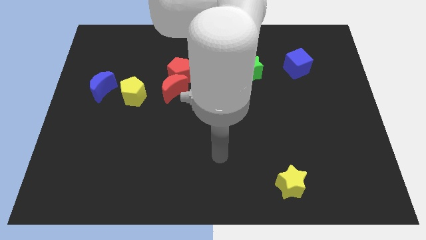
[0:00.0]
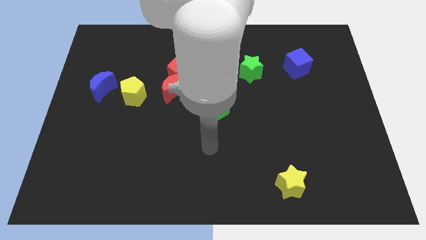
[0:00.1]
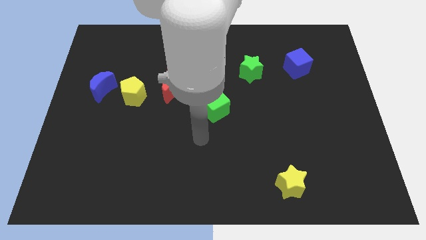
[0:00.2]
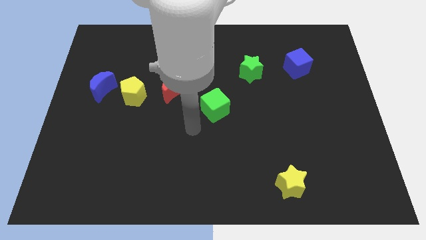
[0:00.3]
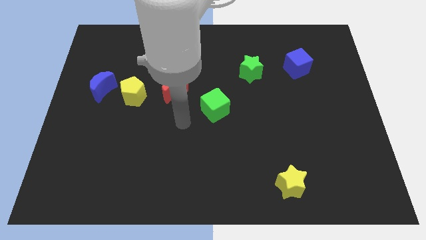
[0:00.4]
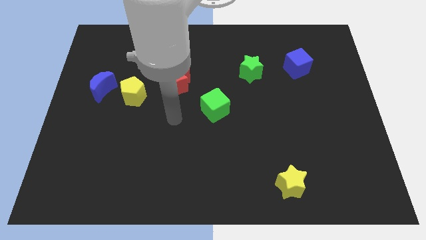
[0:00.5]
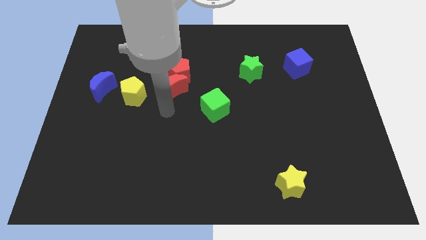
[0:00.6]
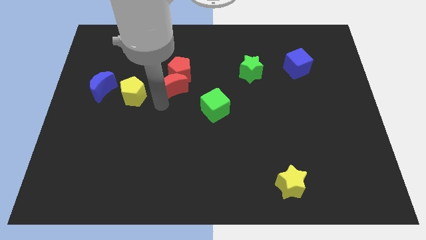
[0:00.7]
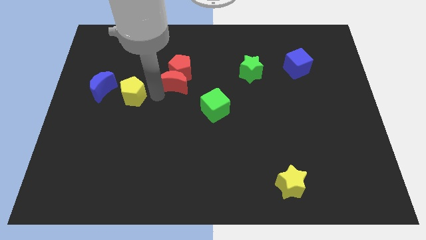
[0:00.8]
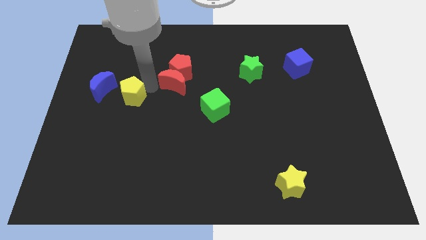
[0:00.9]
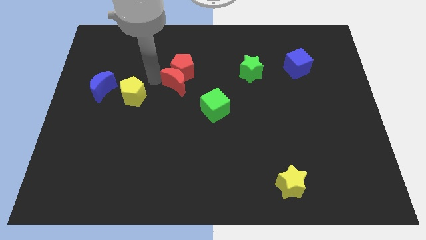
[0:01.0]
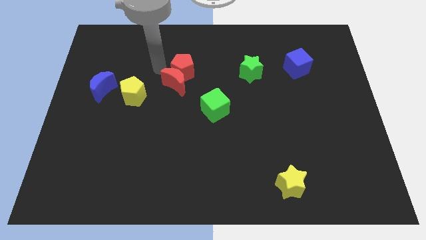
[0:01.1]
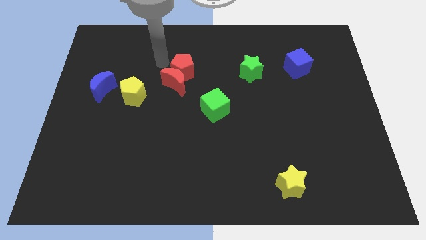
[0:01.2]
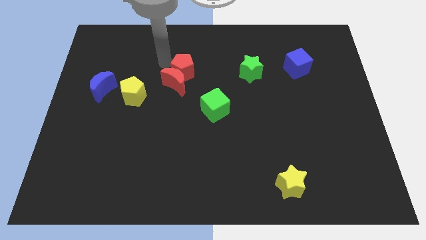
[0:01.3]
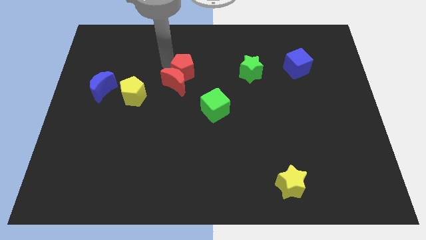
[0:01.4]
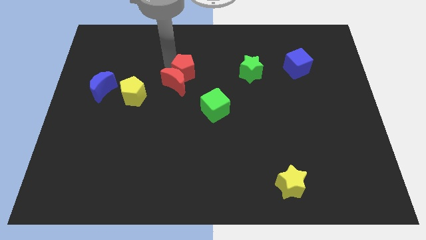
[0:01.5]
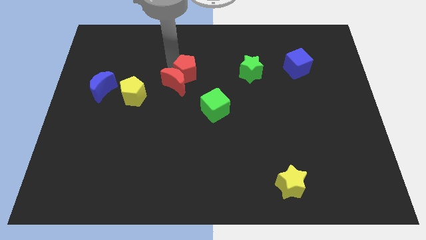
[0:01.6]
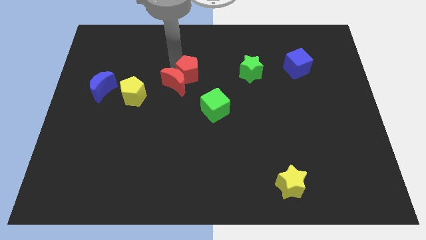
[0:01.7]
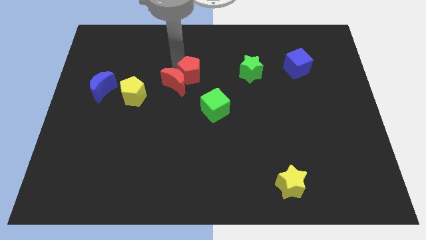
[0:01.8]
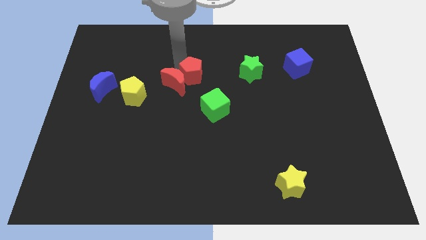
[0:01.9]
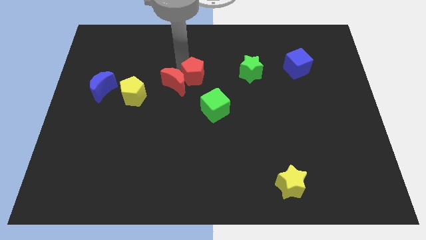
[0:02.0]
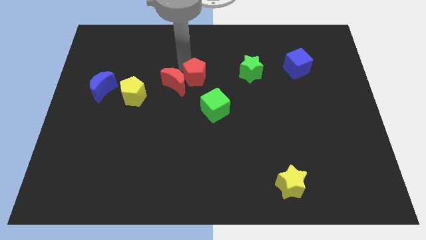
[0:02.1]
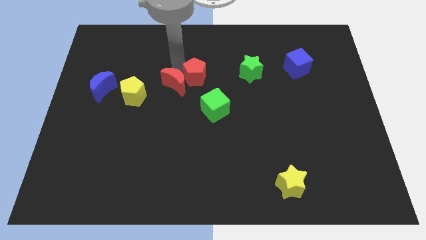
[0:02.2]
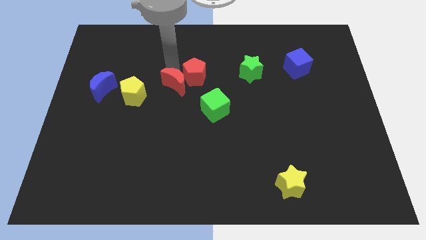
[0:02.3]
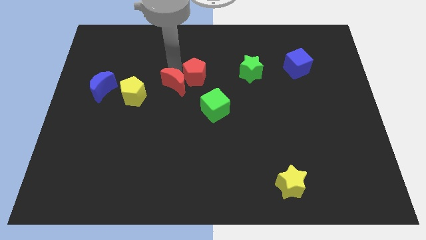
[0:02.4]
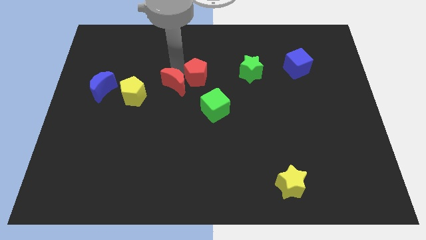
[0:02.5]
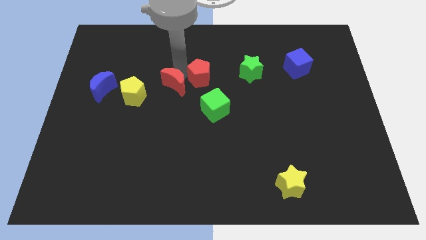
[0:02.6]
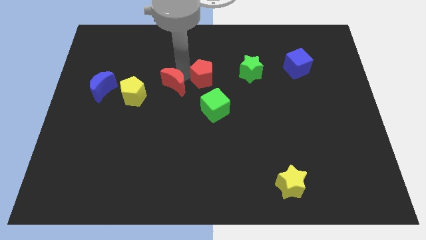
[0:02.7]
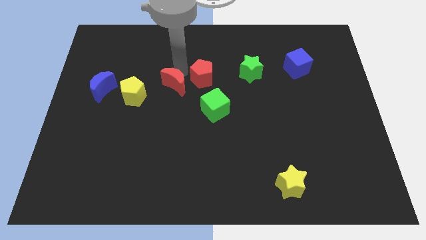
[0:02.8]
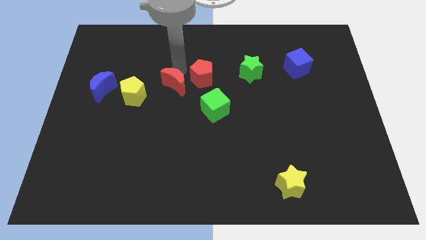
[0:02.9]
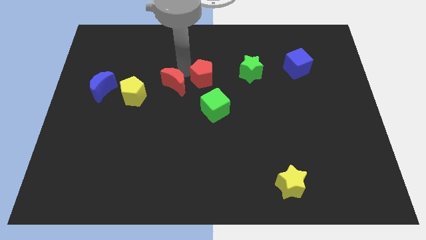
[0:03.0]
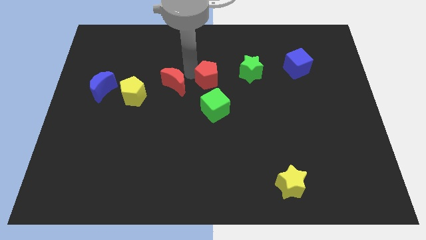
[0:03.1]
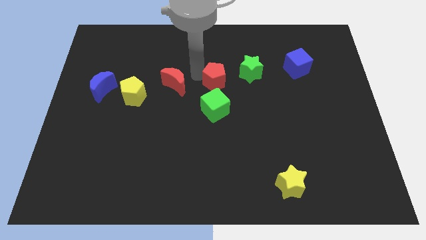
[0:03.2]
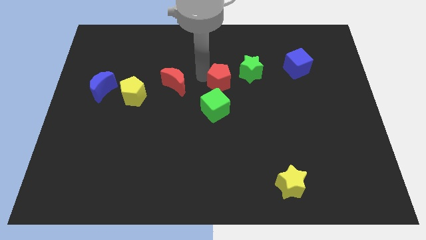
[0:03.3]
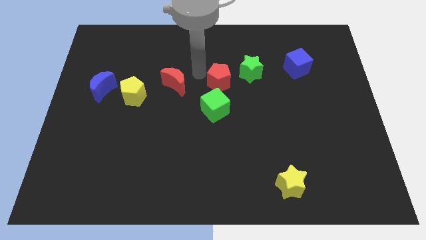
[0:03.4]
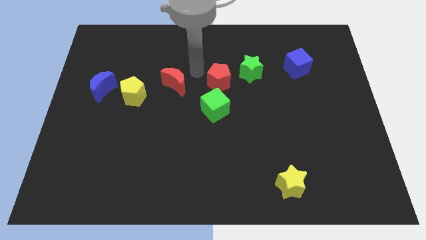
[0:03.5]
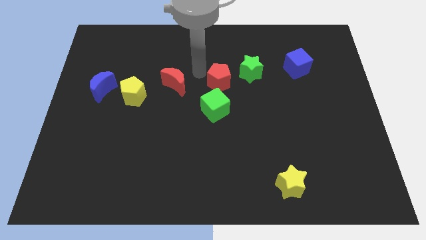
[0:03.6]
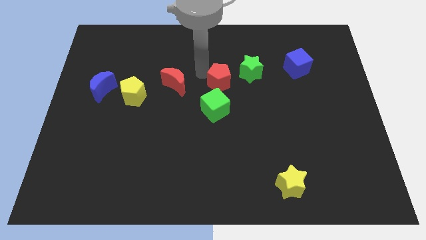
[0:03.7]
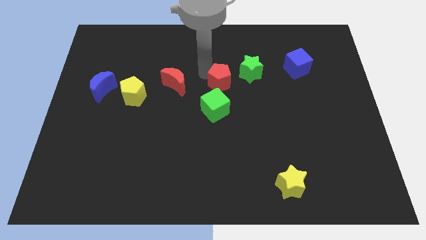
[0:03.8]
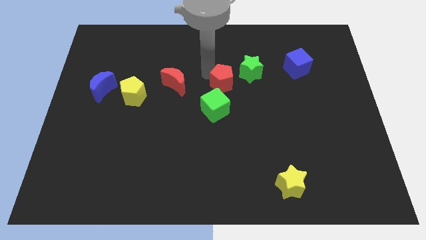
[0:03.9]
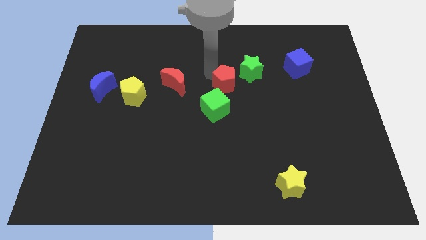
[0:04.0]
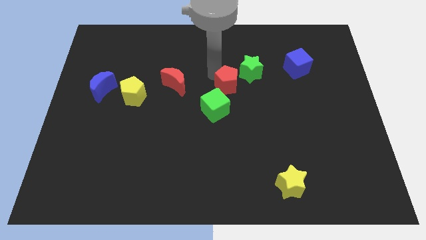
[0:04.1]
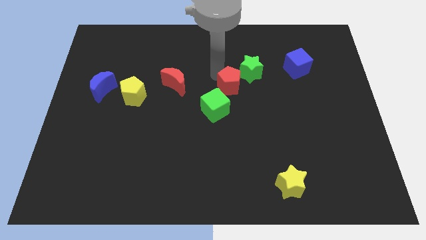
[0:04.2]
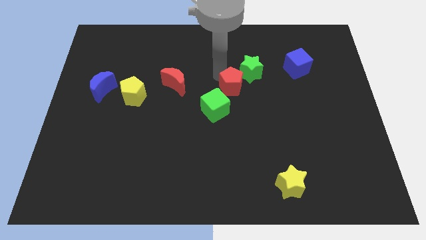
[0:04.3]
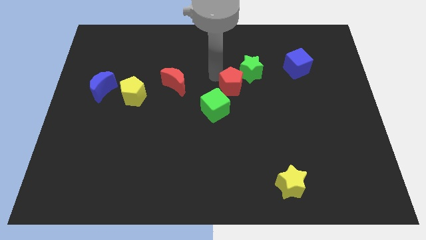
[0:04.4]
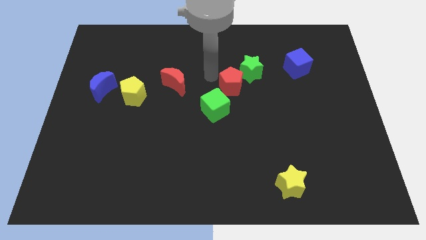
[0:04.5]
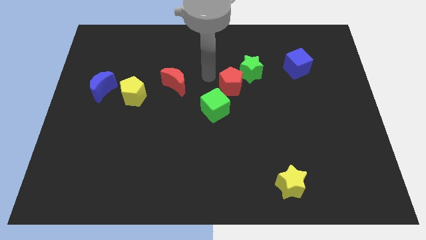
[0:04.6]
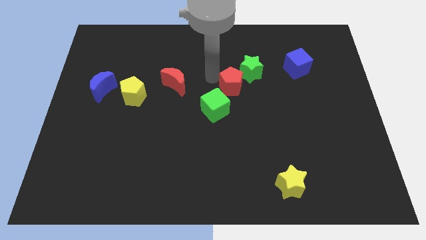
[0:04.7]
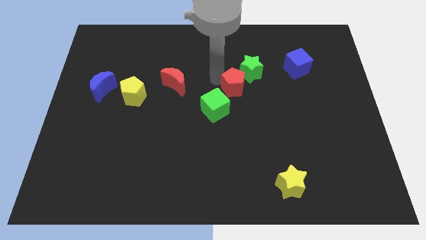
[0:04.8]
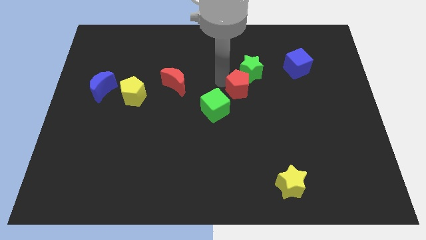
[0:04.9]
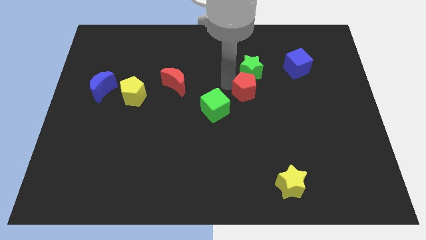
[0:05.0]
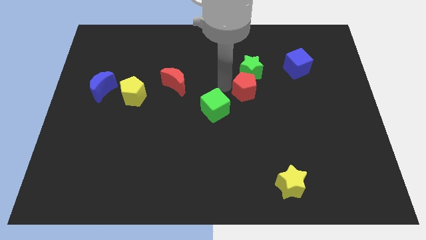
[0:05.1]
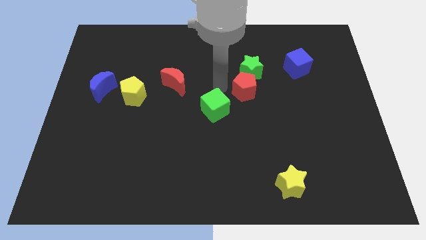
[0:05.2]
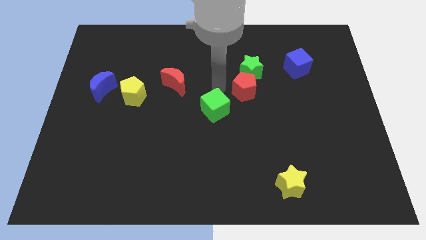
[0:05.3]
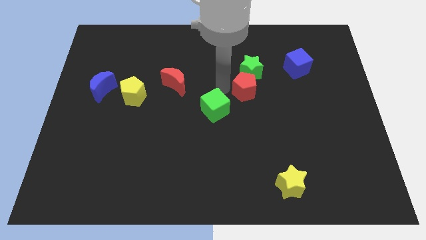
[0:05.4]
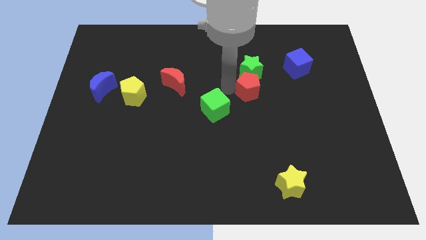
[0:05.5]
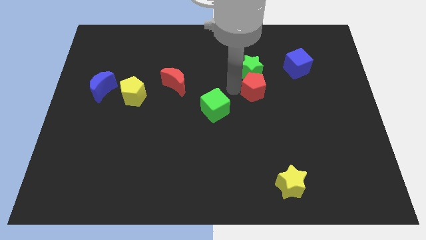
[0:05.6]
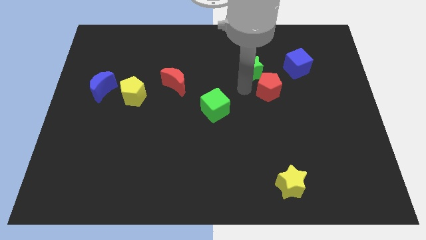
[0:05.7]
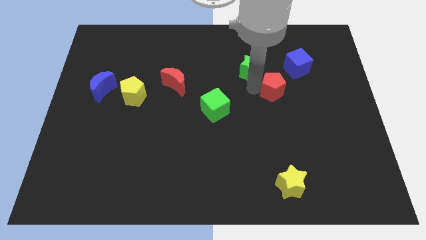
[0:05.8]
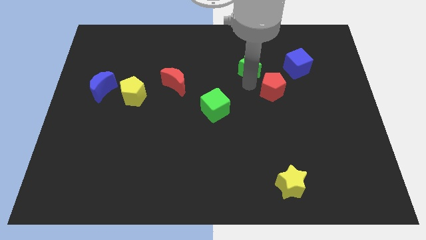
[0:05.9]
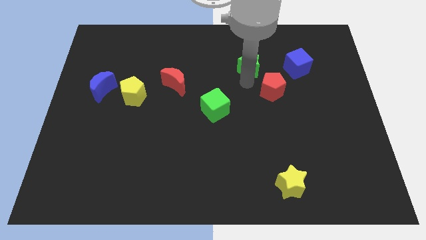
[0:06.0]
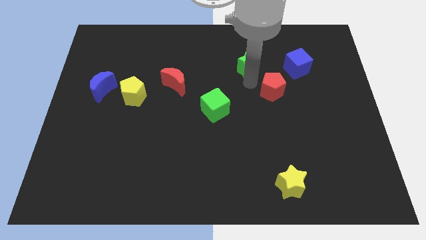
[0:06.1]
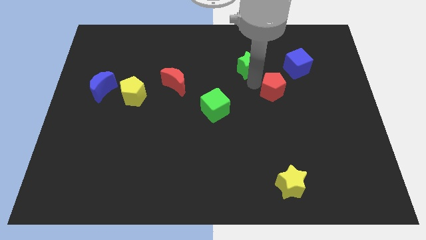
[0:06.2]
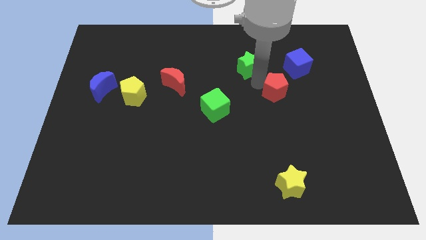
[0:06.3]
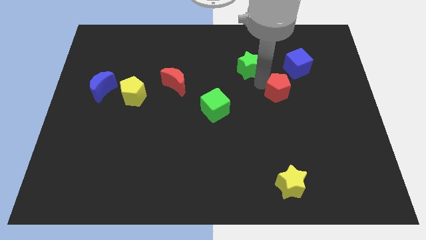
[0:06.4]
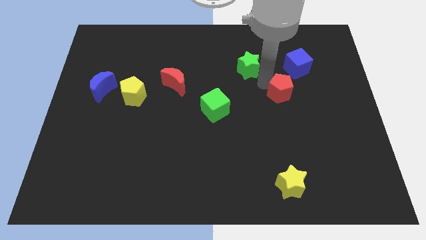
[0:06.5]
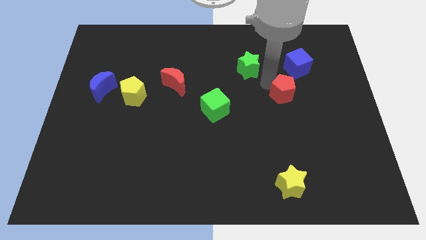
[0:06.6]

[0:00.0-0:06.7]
push the red pentagon to the bottom of the blue cube

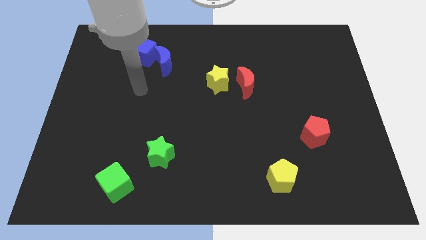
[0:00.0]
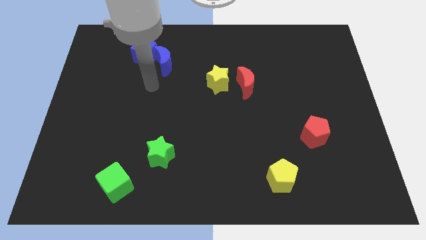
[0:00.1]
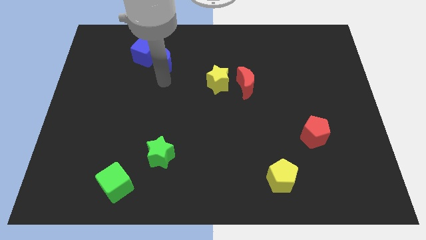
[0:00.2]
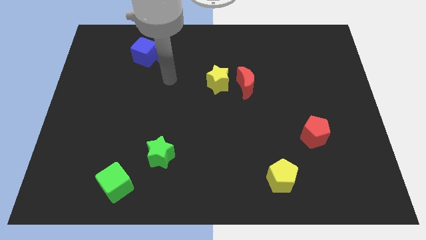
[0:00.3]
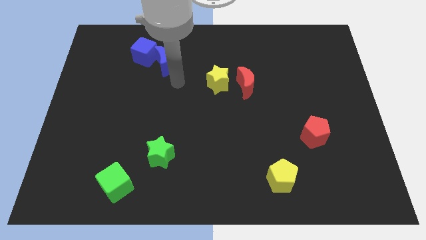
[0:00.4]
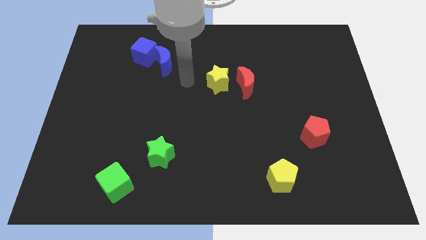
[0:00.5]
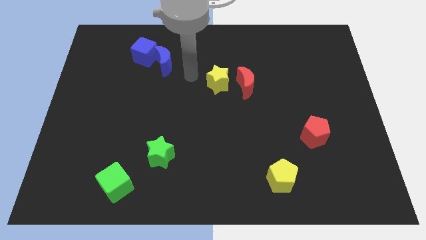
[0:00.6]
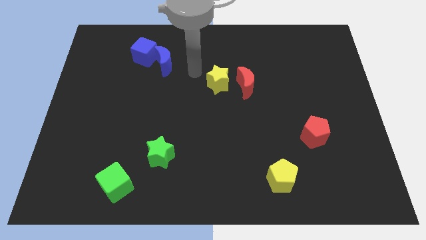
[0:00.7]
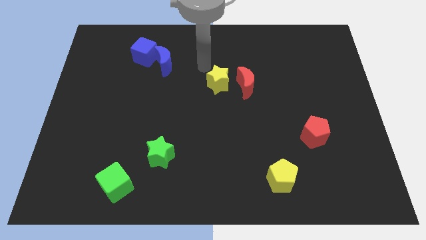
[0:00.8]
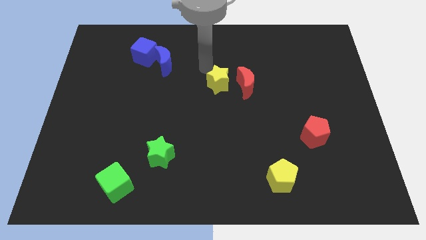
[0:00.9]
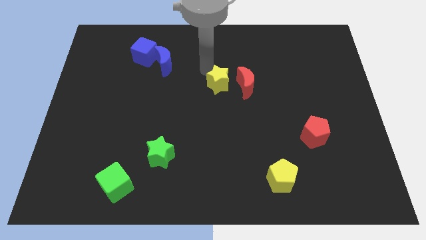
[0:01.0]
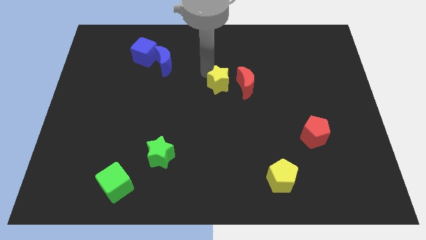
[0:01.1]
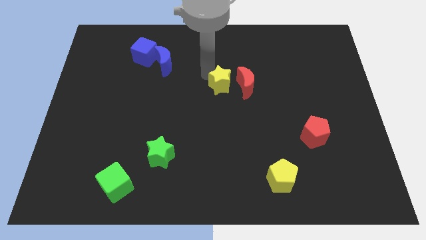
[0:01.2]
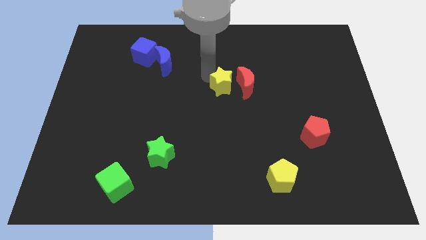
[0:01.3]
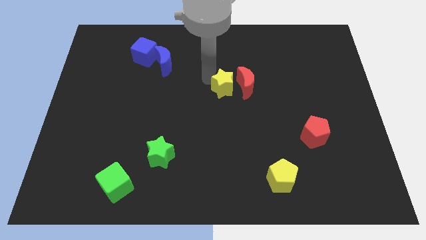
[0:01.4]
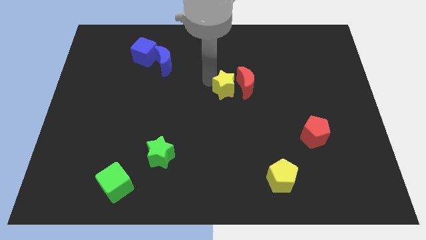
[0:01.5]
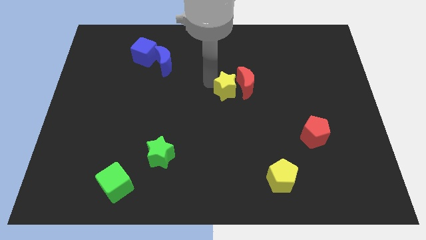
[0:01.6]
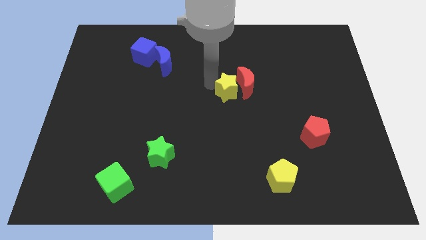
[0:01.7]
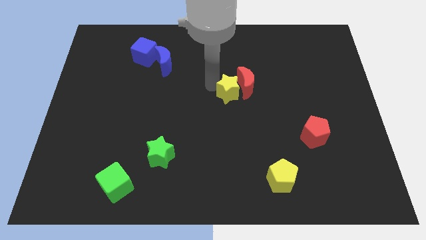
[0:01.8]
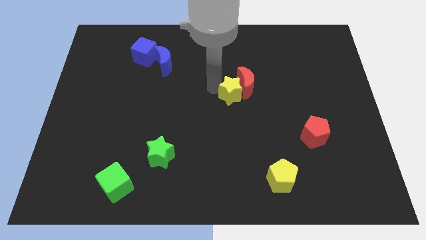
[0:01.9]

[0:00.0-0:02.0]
slide the yellow star below the red moon
